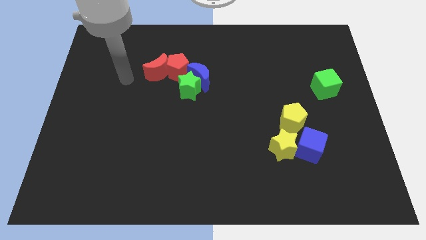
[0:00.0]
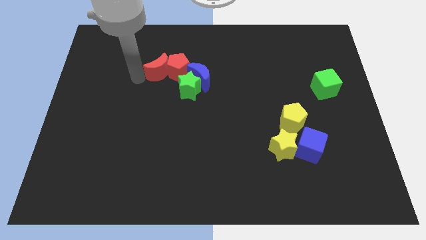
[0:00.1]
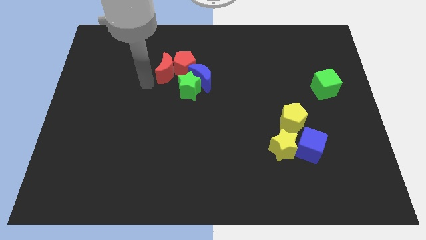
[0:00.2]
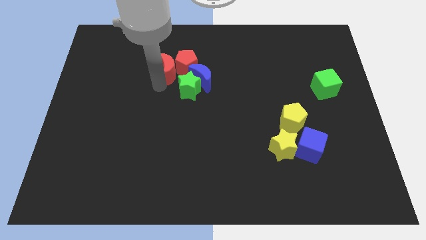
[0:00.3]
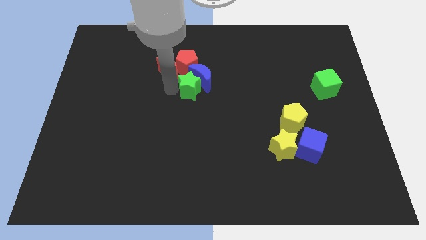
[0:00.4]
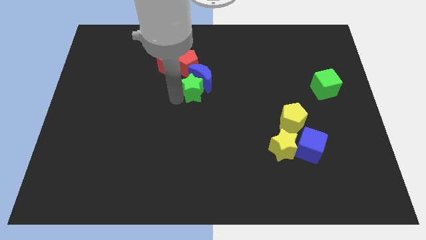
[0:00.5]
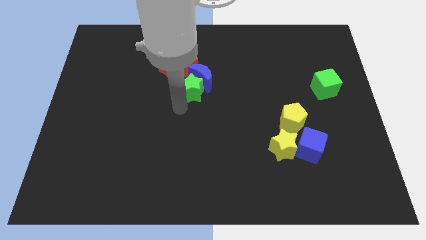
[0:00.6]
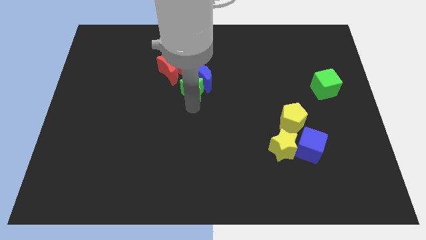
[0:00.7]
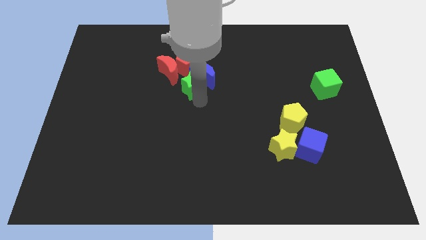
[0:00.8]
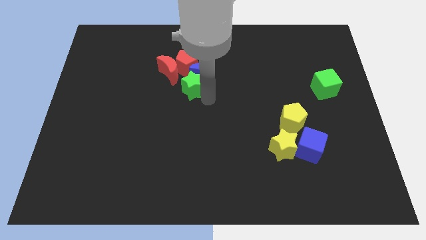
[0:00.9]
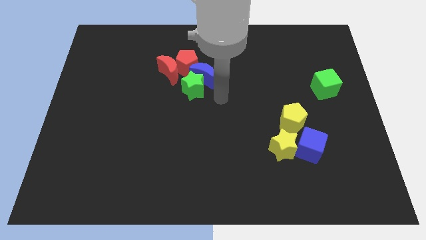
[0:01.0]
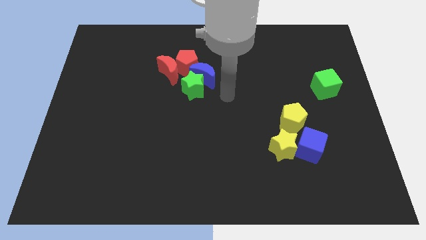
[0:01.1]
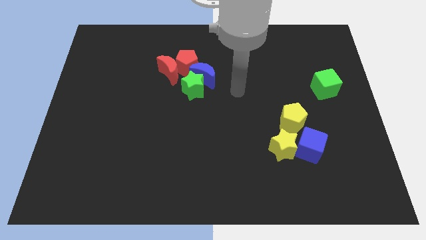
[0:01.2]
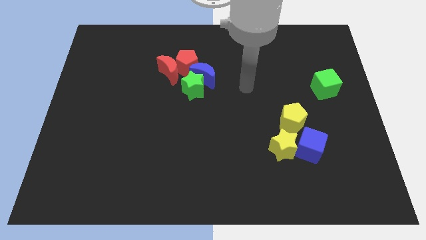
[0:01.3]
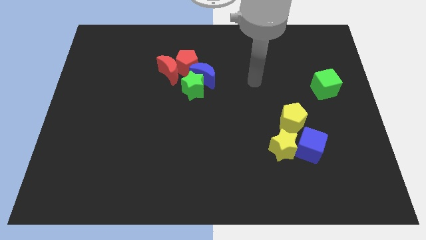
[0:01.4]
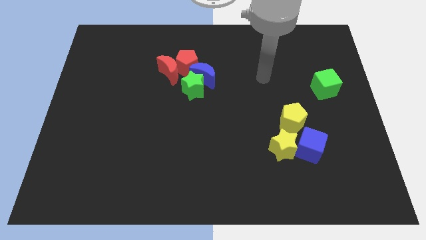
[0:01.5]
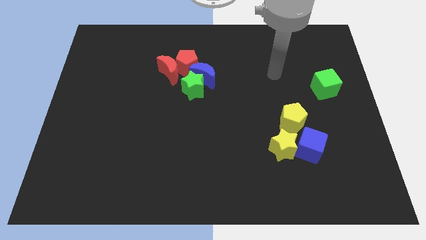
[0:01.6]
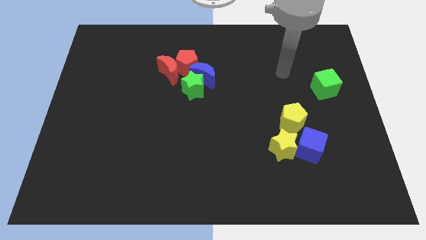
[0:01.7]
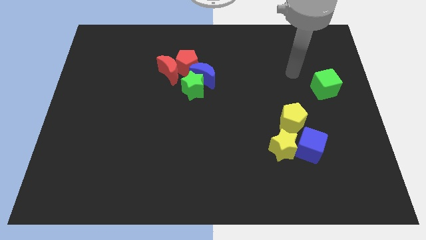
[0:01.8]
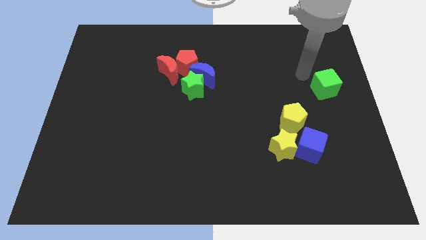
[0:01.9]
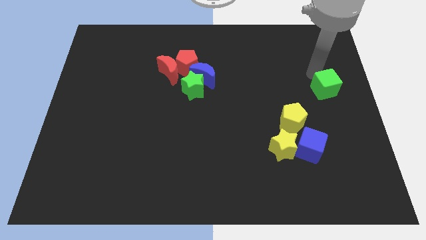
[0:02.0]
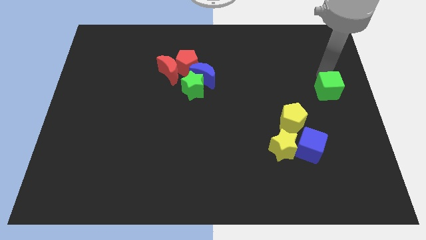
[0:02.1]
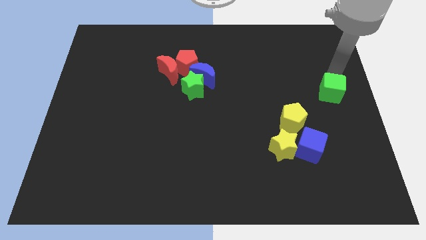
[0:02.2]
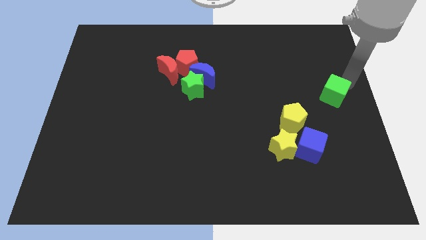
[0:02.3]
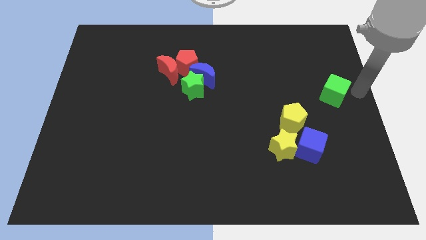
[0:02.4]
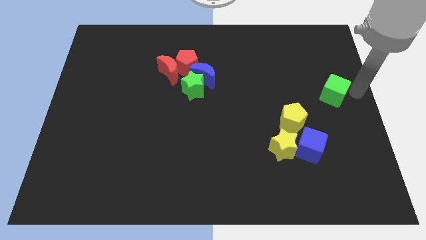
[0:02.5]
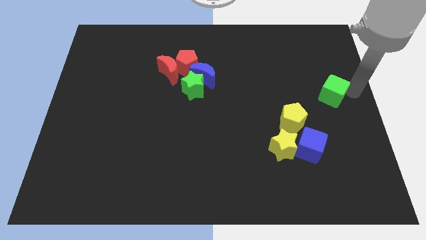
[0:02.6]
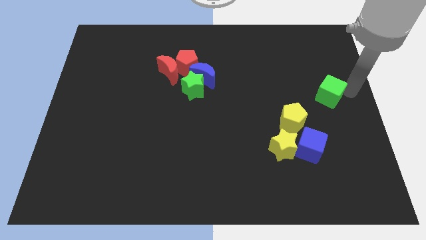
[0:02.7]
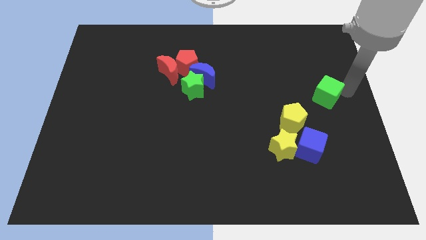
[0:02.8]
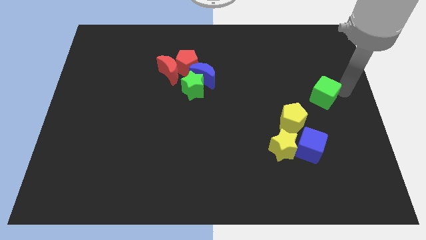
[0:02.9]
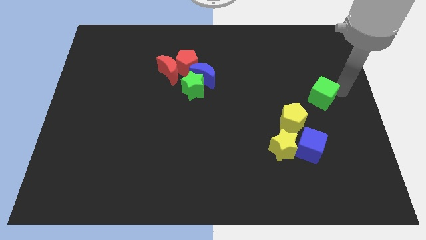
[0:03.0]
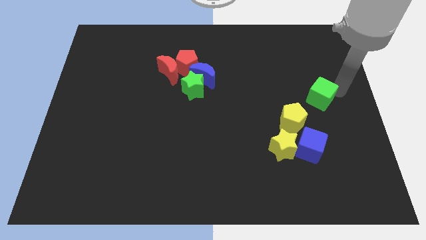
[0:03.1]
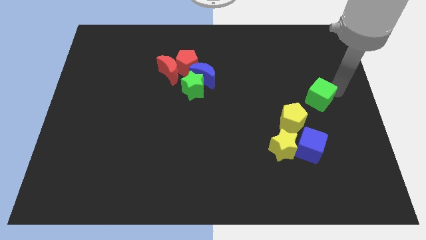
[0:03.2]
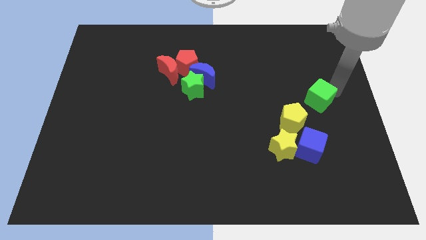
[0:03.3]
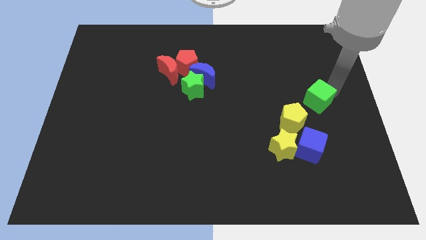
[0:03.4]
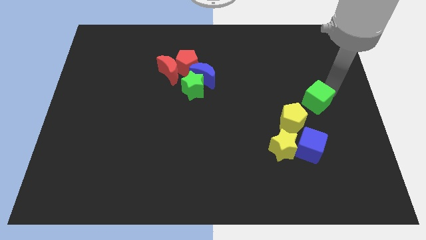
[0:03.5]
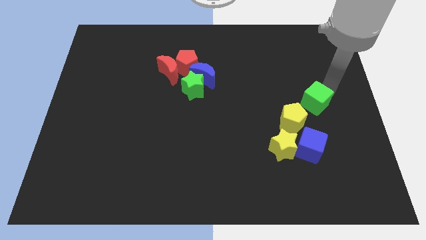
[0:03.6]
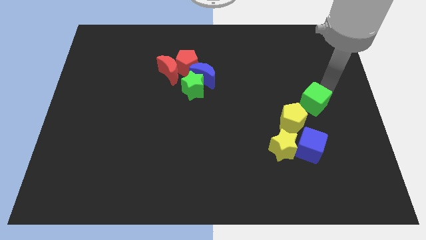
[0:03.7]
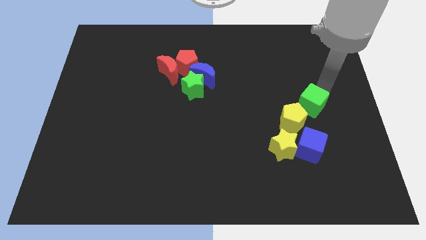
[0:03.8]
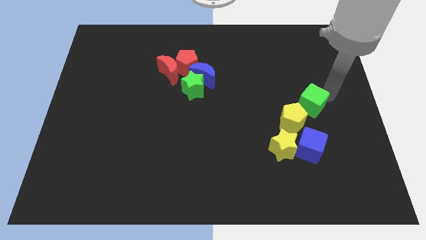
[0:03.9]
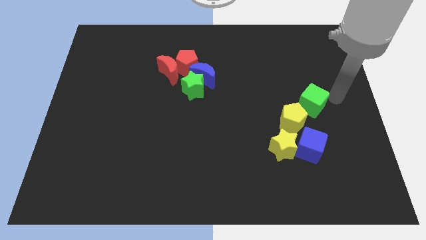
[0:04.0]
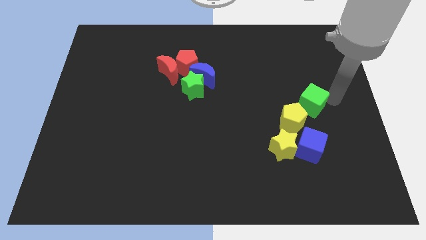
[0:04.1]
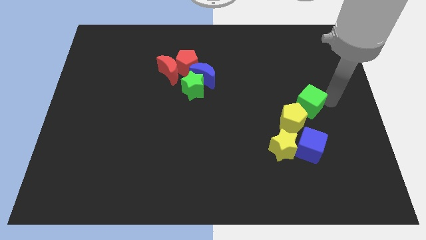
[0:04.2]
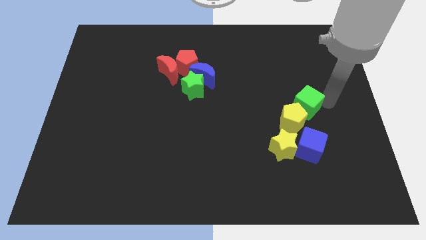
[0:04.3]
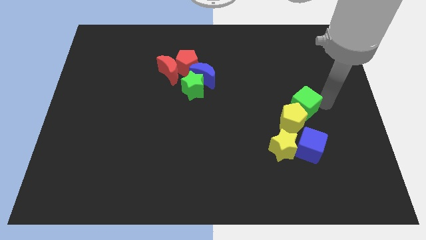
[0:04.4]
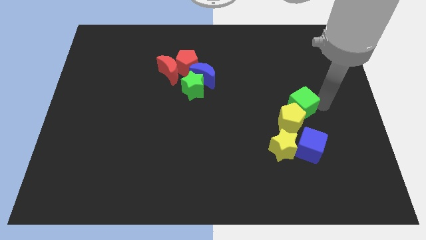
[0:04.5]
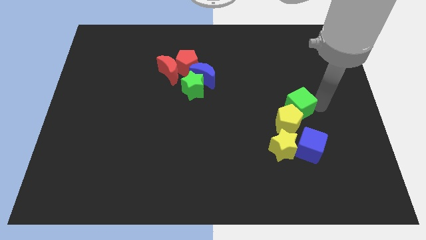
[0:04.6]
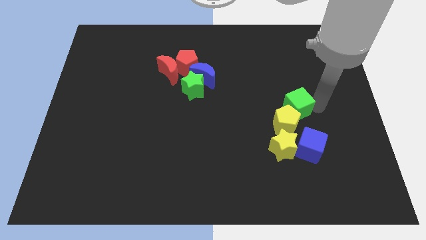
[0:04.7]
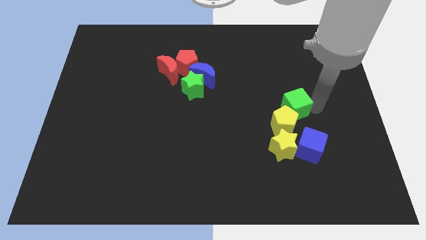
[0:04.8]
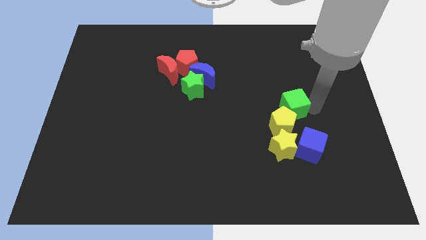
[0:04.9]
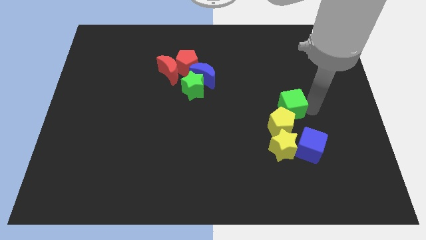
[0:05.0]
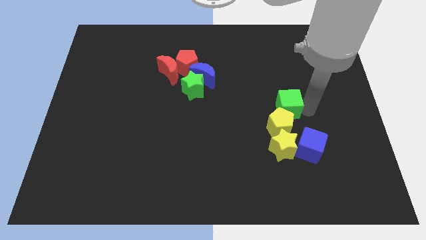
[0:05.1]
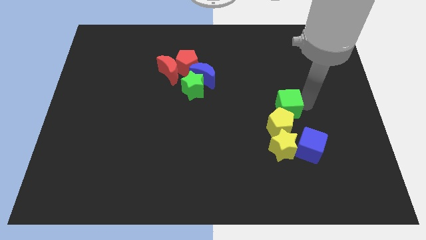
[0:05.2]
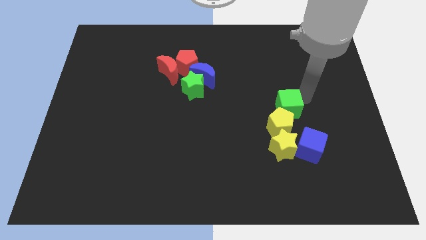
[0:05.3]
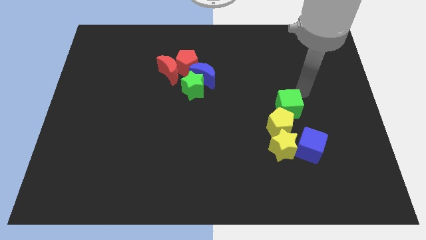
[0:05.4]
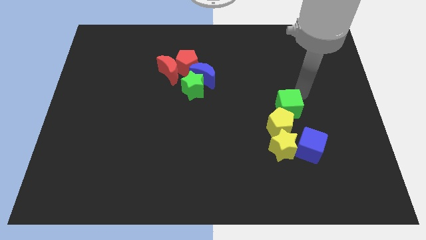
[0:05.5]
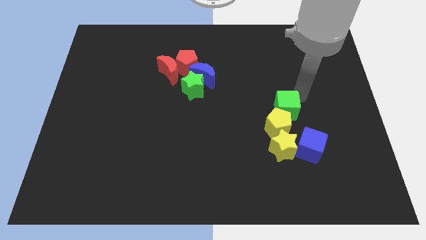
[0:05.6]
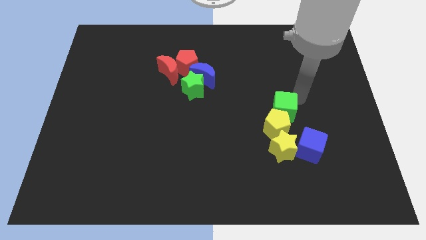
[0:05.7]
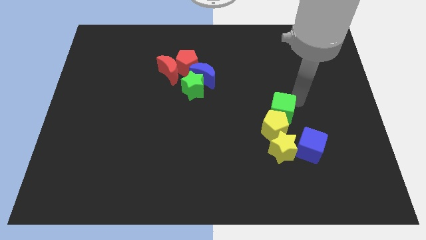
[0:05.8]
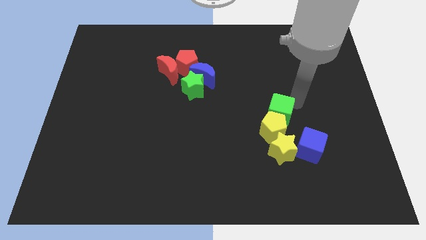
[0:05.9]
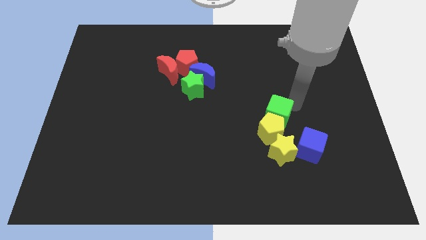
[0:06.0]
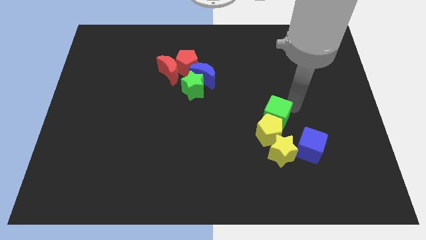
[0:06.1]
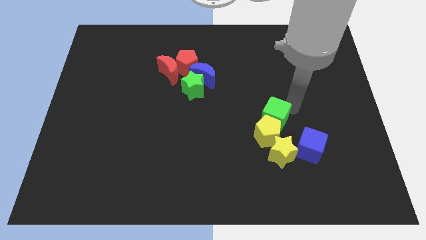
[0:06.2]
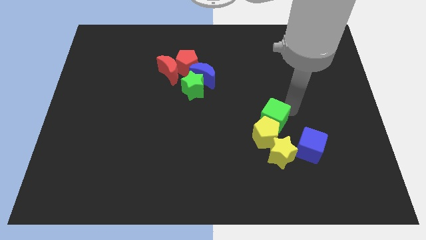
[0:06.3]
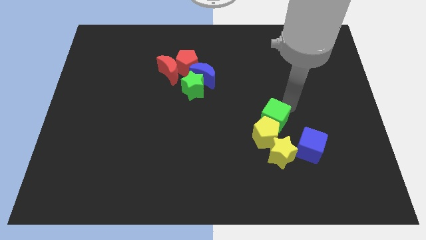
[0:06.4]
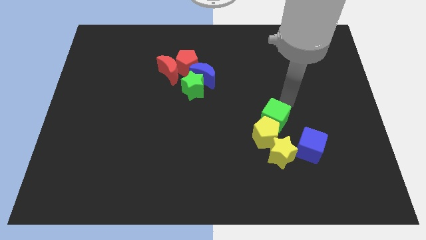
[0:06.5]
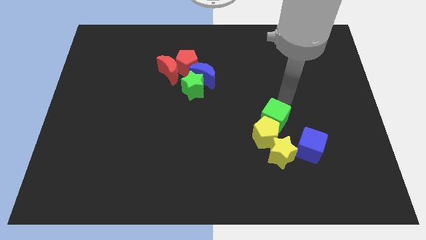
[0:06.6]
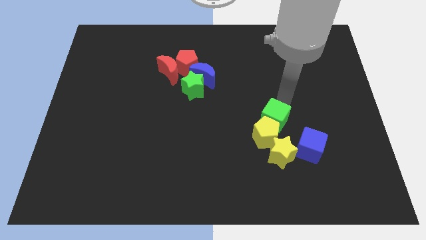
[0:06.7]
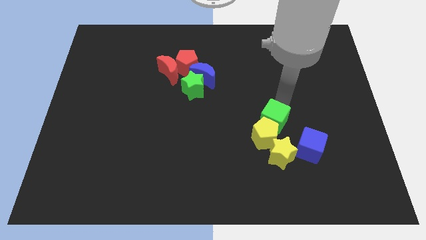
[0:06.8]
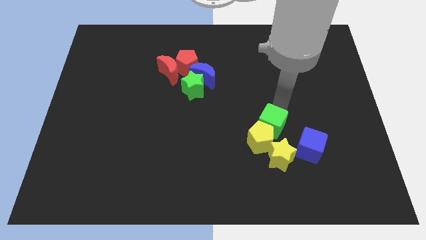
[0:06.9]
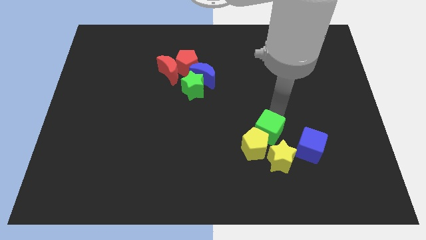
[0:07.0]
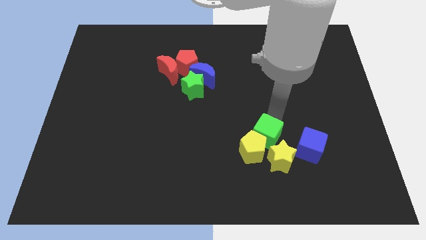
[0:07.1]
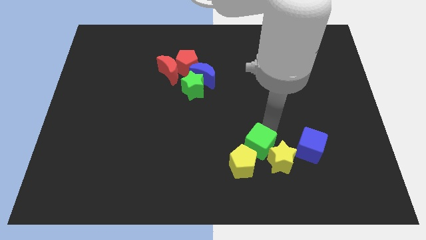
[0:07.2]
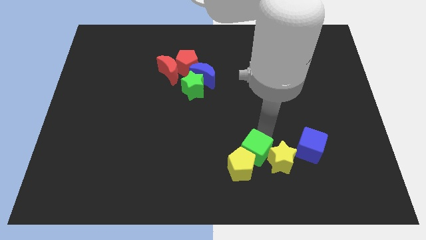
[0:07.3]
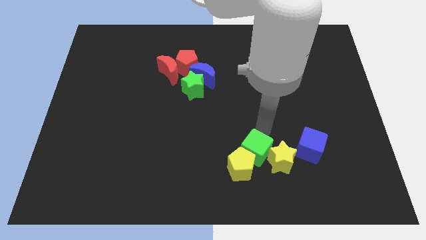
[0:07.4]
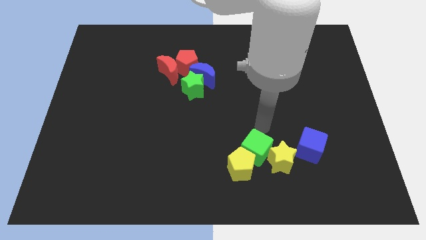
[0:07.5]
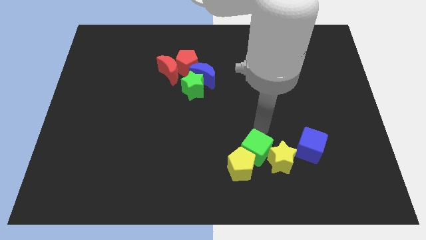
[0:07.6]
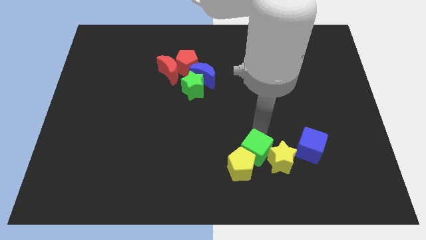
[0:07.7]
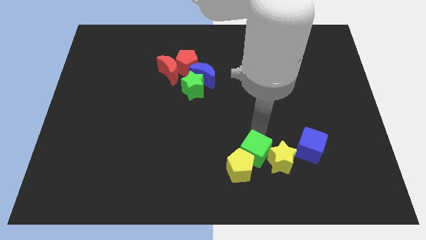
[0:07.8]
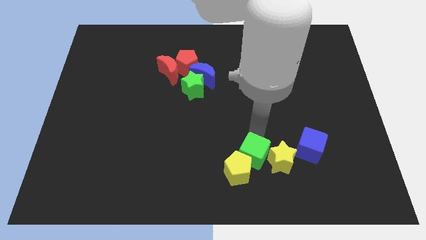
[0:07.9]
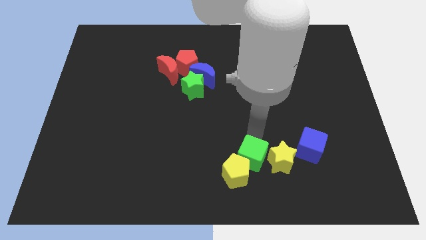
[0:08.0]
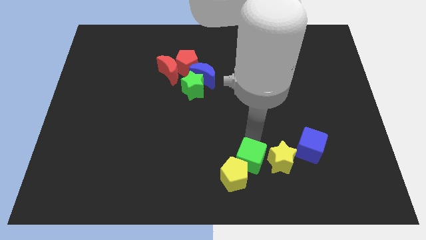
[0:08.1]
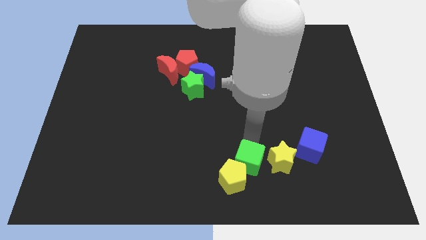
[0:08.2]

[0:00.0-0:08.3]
move the green cube to the bottom
